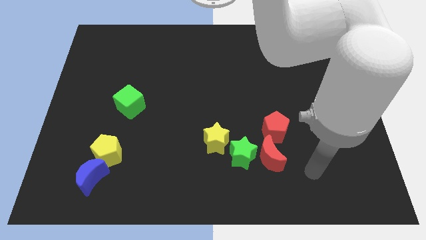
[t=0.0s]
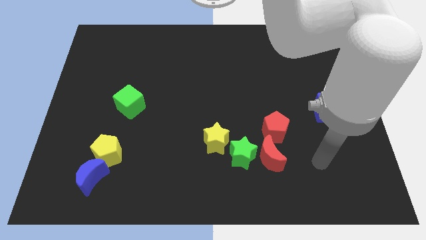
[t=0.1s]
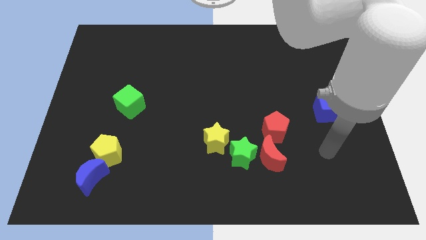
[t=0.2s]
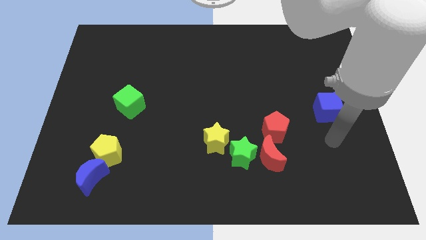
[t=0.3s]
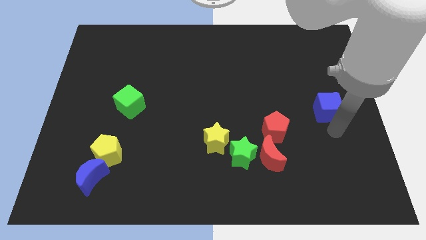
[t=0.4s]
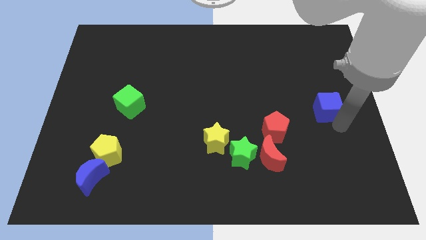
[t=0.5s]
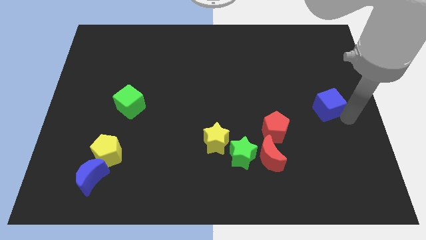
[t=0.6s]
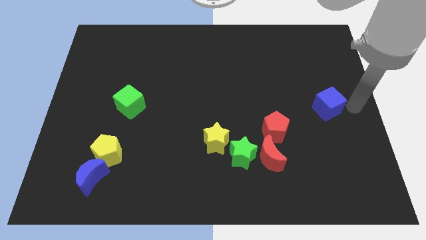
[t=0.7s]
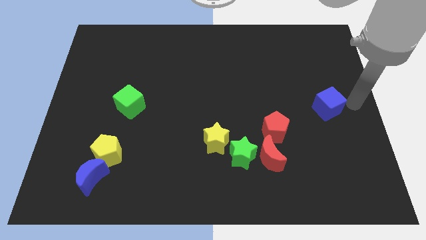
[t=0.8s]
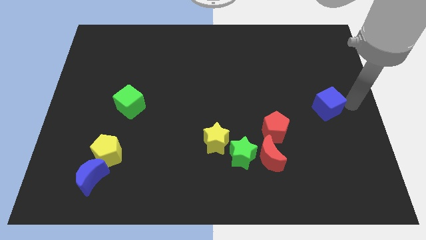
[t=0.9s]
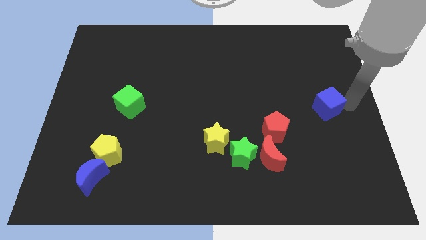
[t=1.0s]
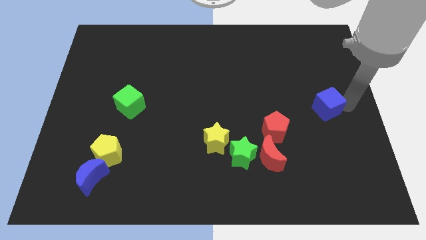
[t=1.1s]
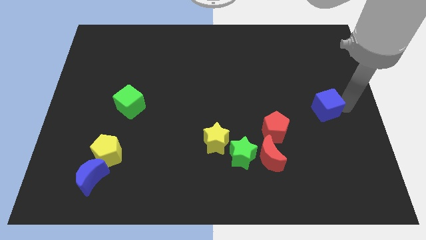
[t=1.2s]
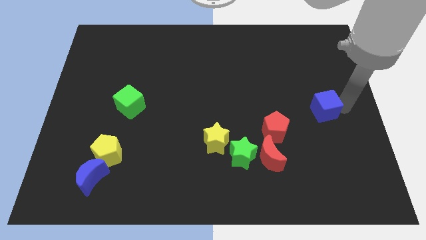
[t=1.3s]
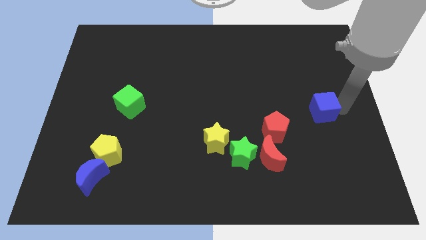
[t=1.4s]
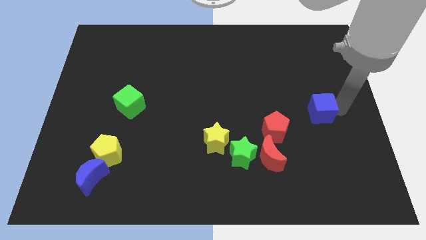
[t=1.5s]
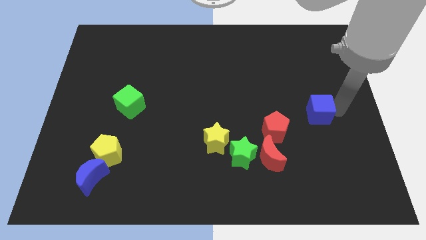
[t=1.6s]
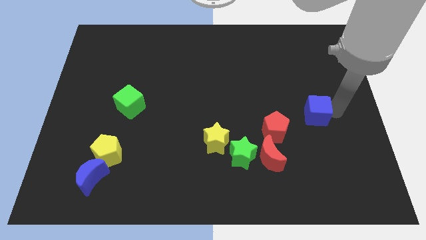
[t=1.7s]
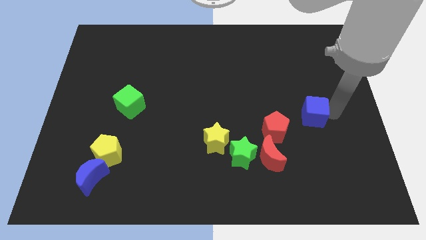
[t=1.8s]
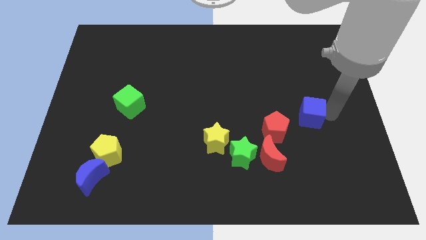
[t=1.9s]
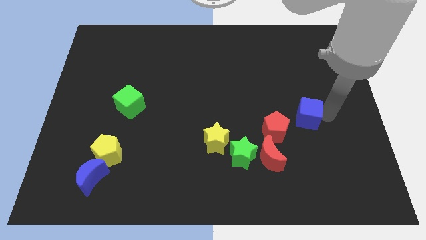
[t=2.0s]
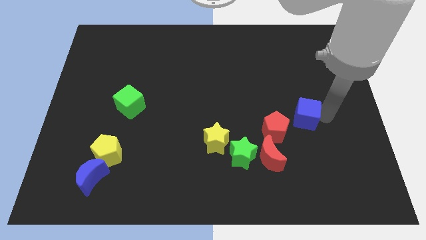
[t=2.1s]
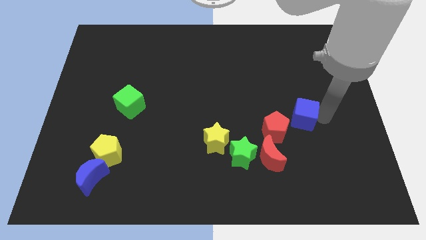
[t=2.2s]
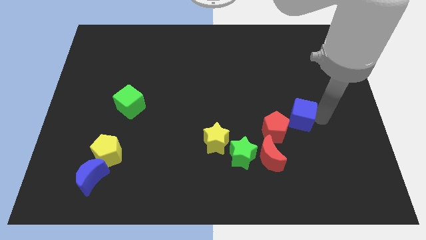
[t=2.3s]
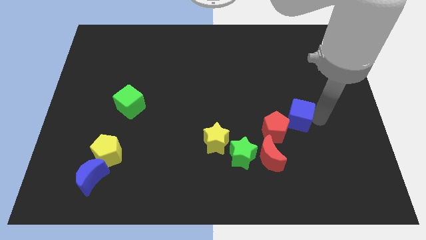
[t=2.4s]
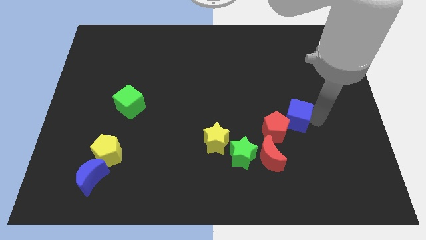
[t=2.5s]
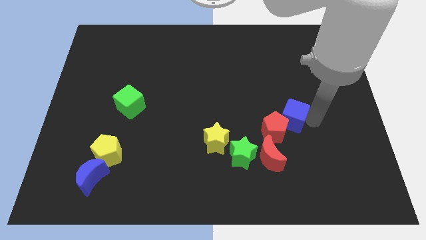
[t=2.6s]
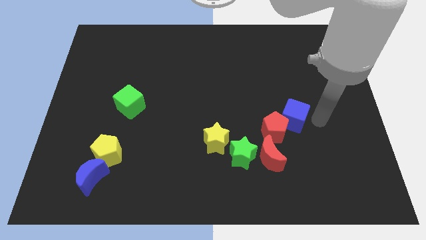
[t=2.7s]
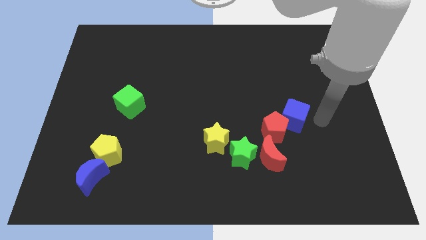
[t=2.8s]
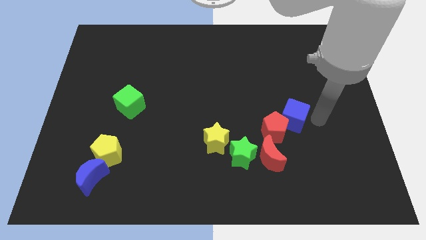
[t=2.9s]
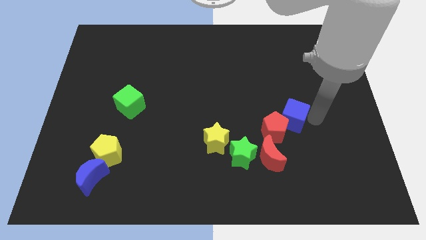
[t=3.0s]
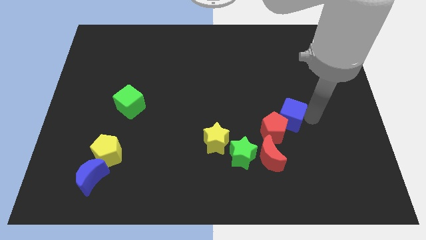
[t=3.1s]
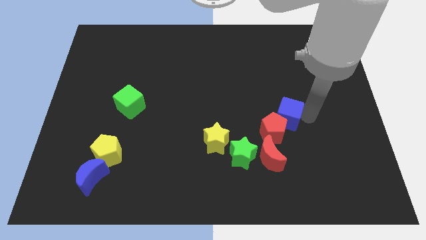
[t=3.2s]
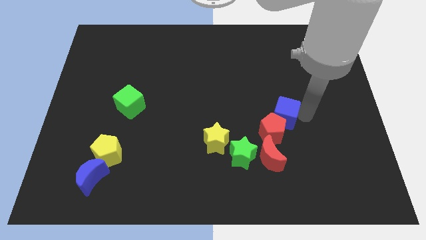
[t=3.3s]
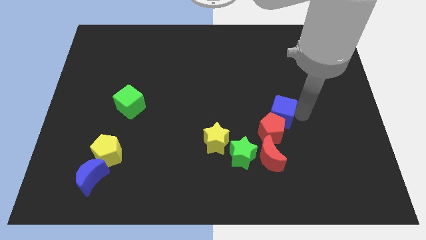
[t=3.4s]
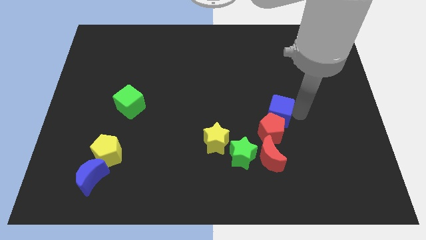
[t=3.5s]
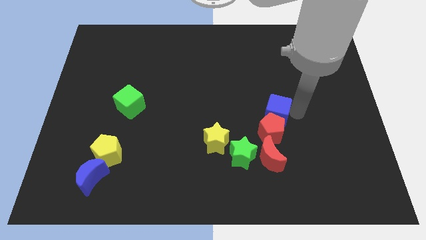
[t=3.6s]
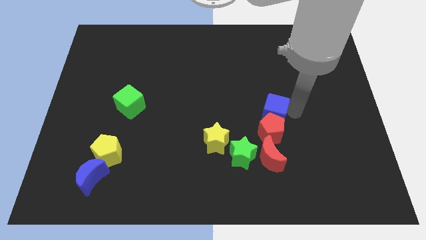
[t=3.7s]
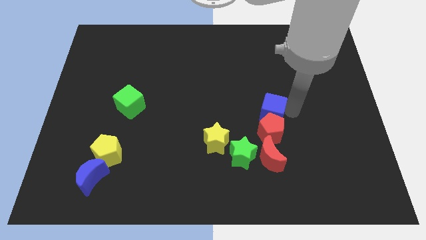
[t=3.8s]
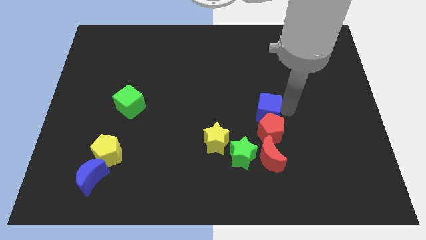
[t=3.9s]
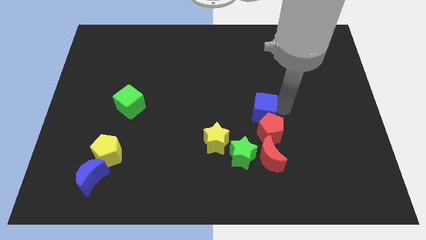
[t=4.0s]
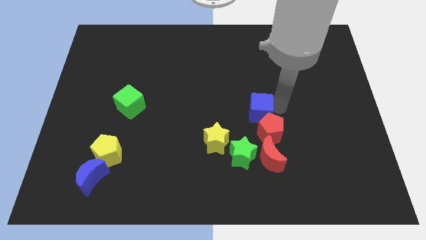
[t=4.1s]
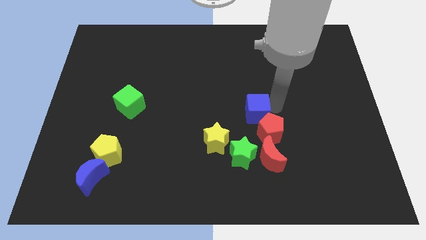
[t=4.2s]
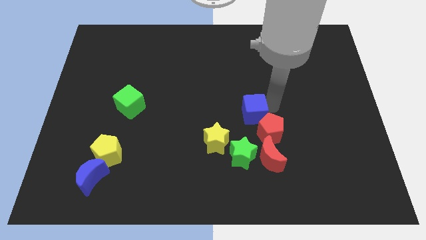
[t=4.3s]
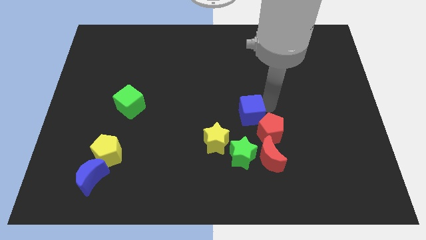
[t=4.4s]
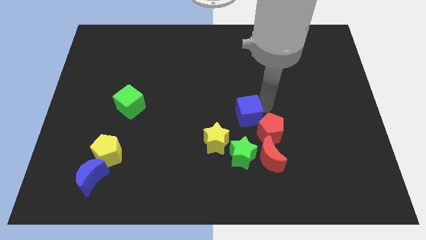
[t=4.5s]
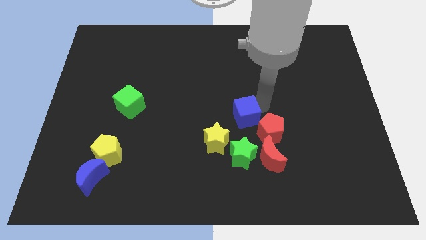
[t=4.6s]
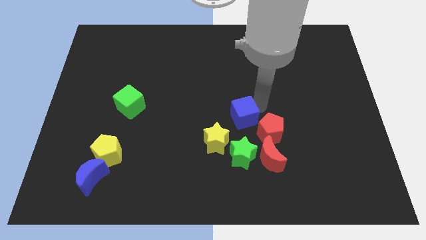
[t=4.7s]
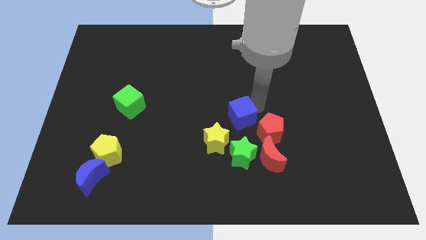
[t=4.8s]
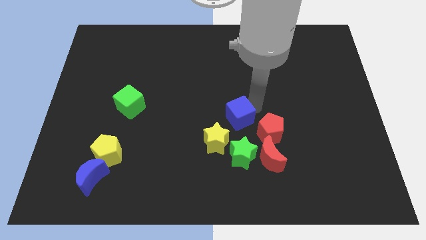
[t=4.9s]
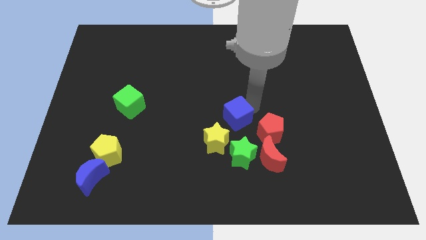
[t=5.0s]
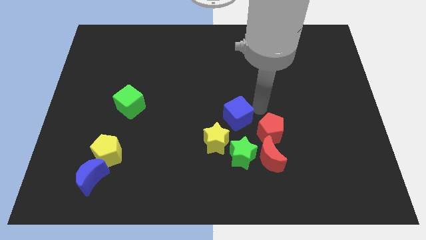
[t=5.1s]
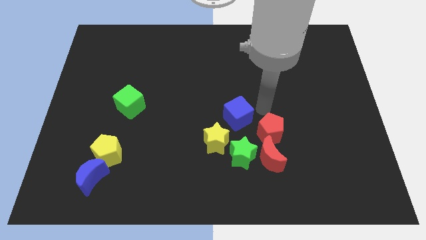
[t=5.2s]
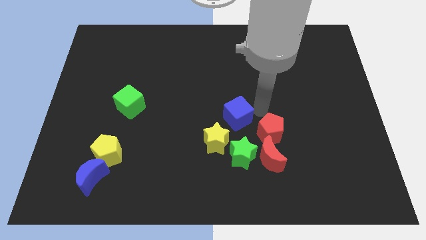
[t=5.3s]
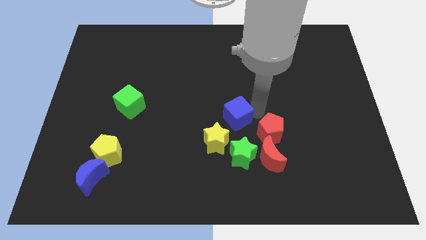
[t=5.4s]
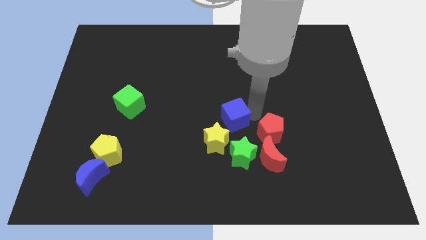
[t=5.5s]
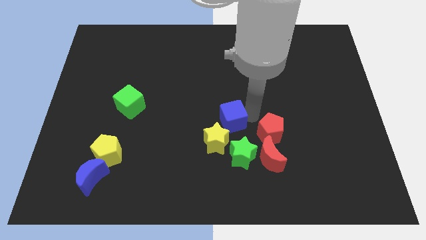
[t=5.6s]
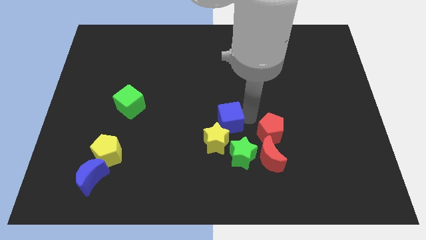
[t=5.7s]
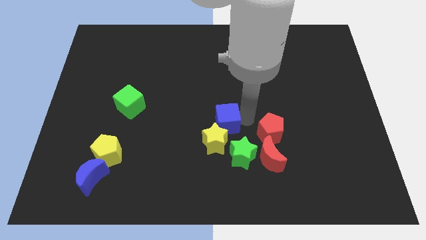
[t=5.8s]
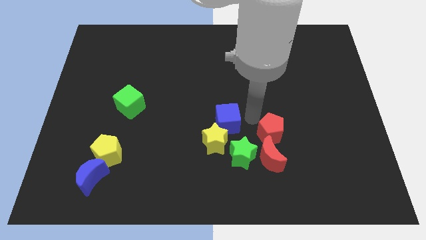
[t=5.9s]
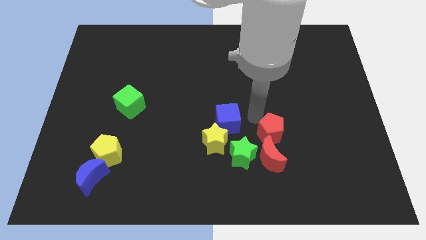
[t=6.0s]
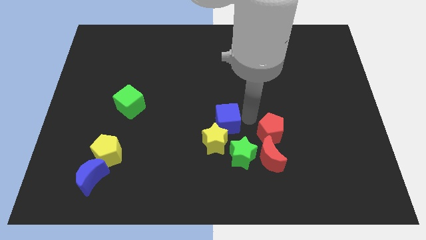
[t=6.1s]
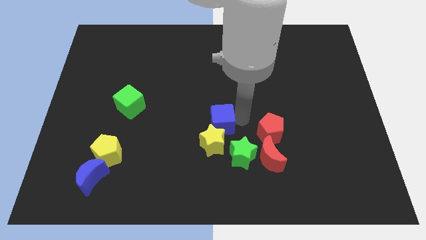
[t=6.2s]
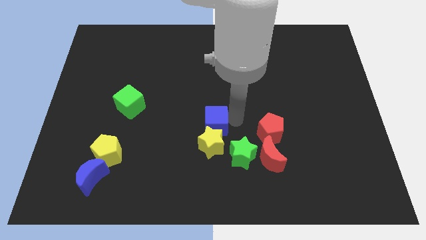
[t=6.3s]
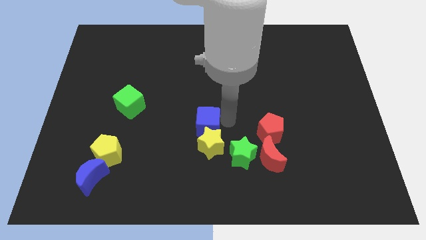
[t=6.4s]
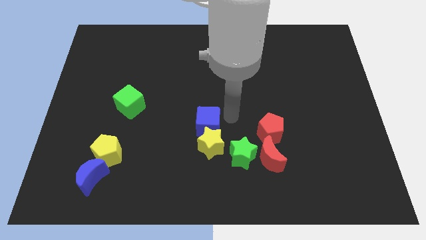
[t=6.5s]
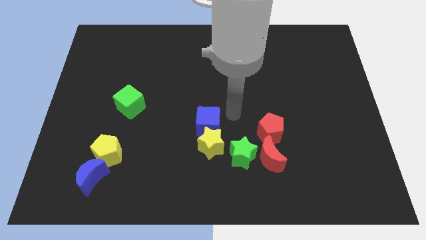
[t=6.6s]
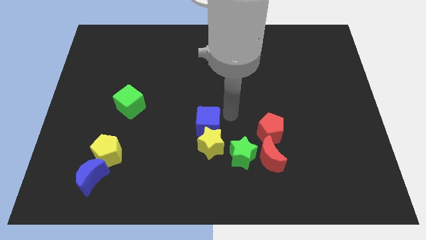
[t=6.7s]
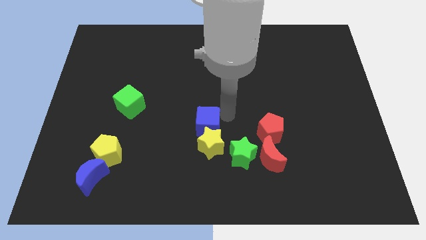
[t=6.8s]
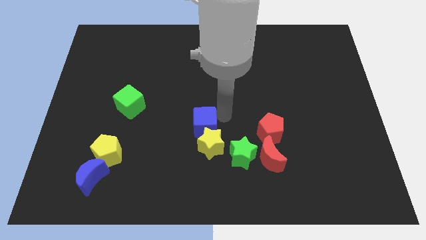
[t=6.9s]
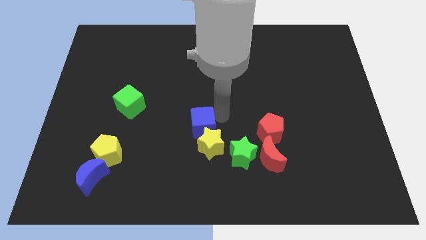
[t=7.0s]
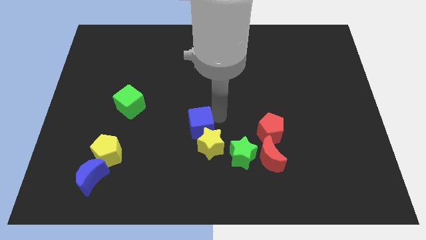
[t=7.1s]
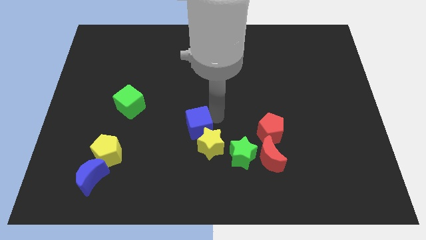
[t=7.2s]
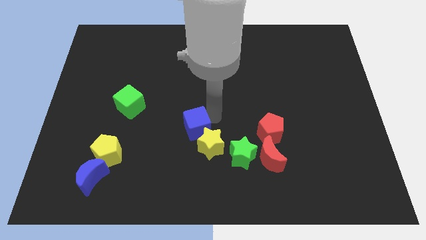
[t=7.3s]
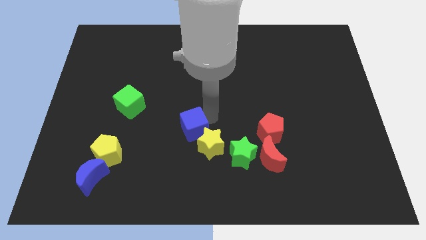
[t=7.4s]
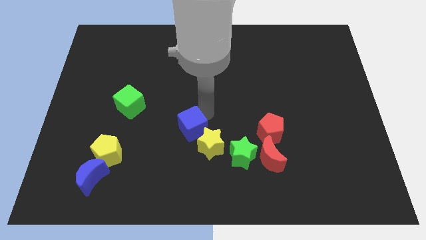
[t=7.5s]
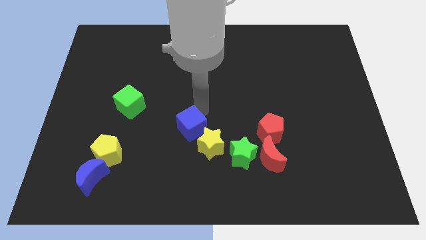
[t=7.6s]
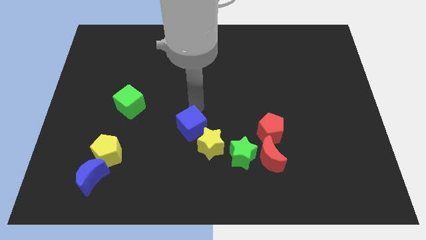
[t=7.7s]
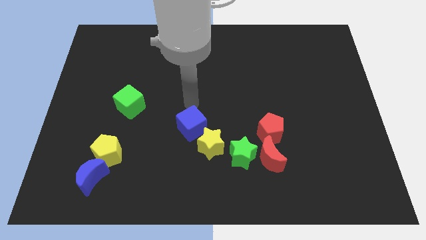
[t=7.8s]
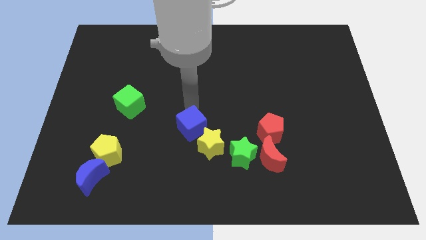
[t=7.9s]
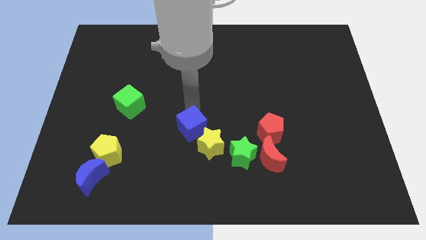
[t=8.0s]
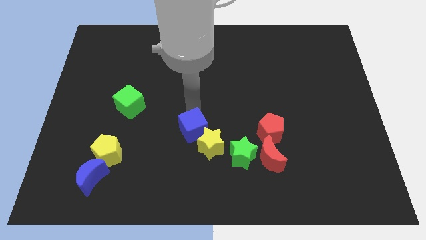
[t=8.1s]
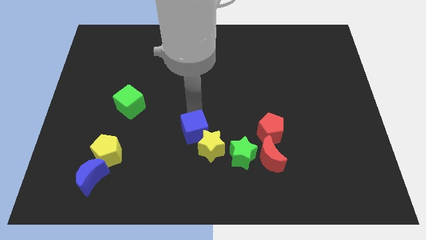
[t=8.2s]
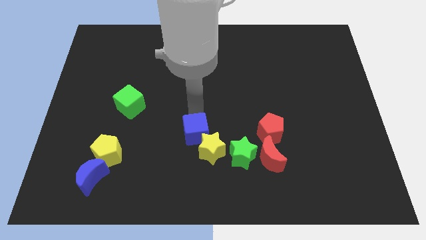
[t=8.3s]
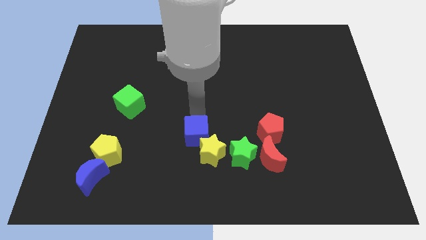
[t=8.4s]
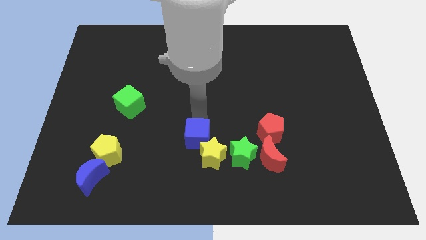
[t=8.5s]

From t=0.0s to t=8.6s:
put the blue cube just left of the green star
